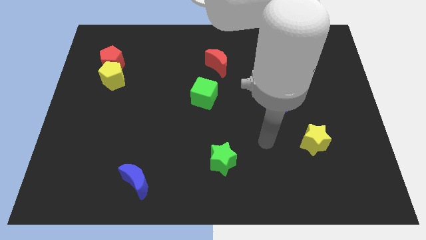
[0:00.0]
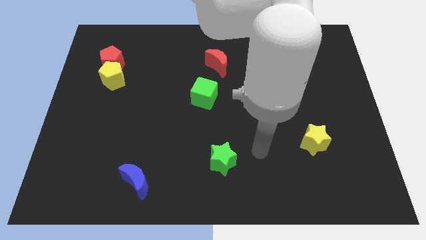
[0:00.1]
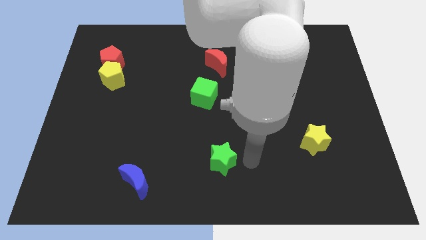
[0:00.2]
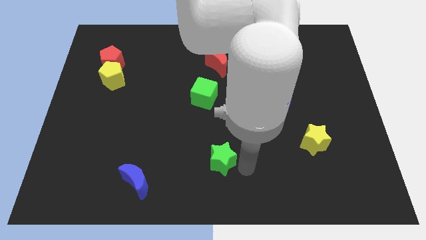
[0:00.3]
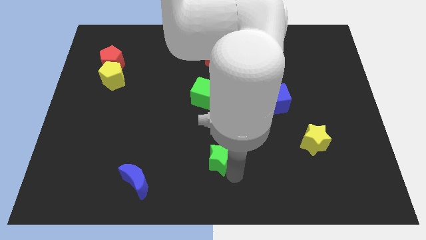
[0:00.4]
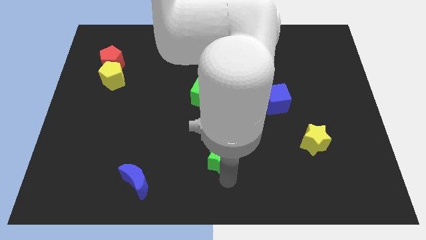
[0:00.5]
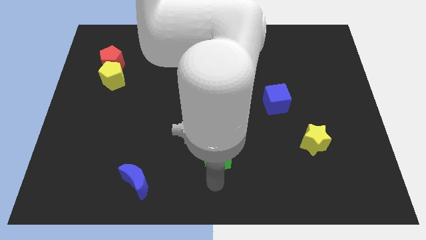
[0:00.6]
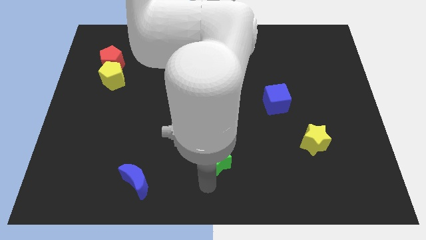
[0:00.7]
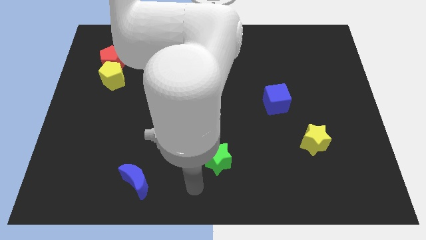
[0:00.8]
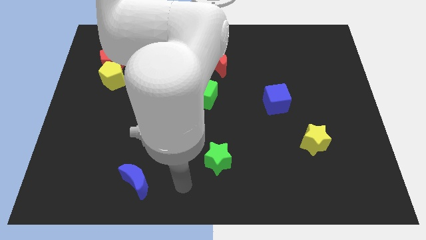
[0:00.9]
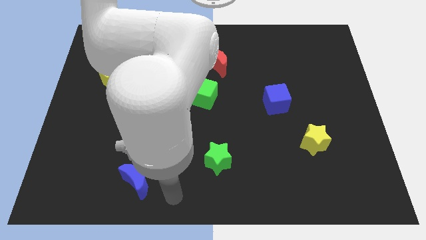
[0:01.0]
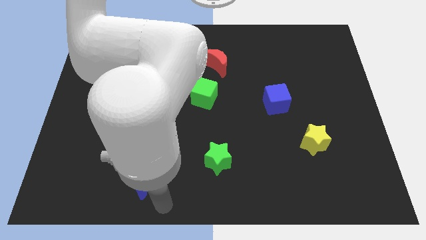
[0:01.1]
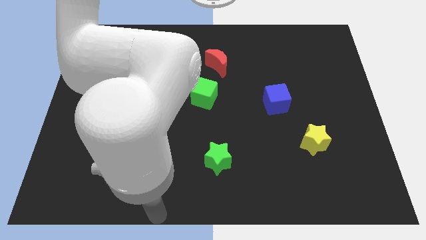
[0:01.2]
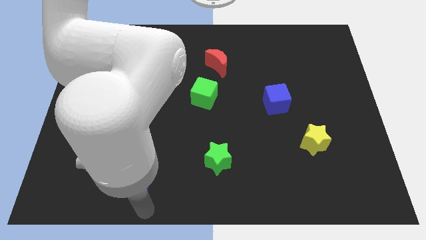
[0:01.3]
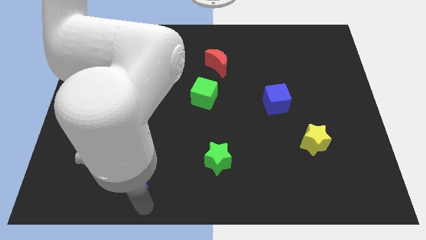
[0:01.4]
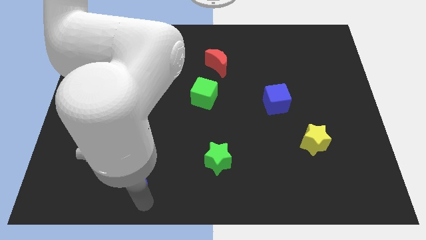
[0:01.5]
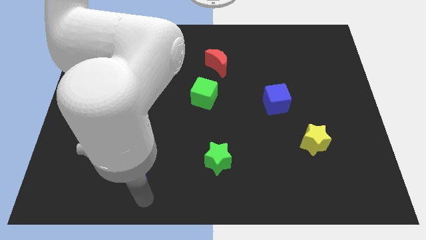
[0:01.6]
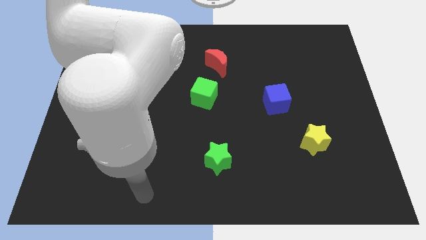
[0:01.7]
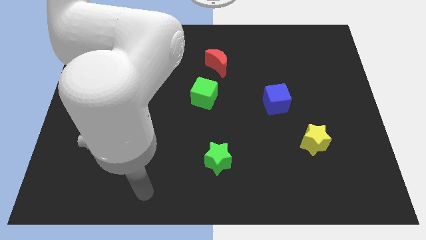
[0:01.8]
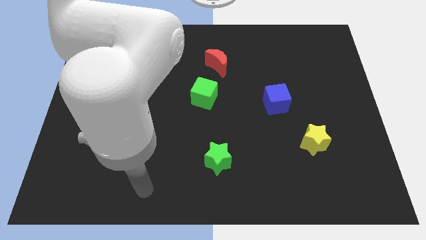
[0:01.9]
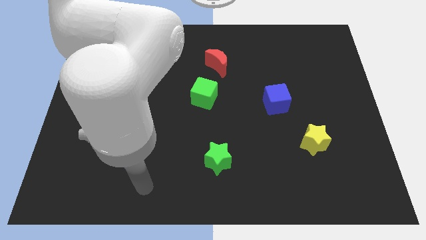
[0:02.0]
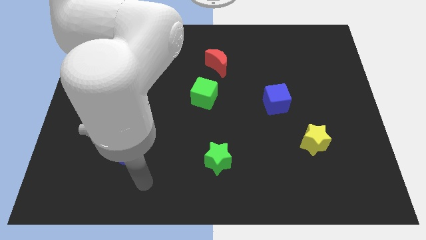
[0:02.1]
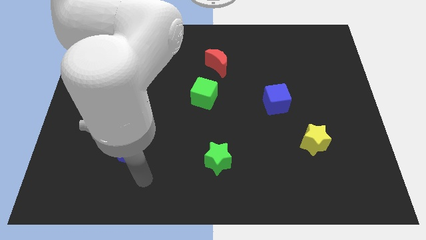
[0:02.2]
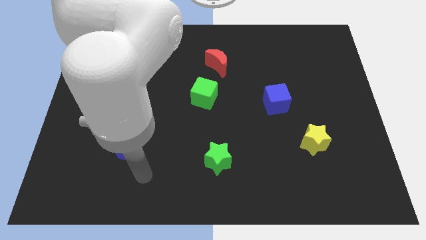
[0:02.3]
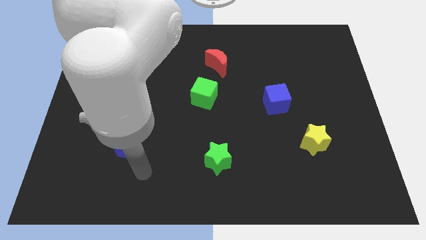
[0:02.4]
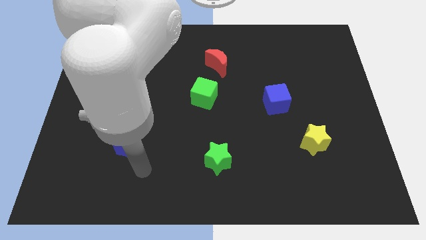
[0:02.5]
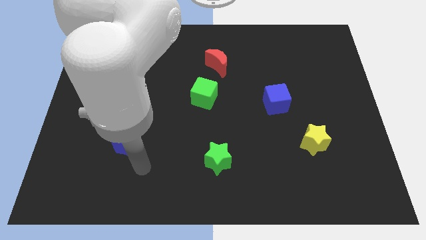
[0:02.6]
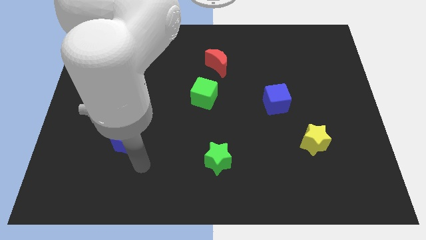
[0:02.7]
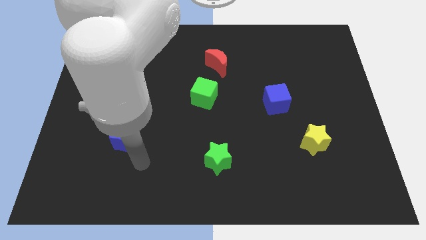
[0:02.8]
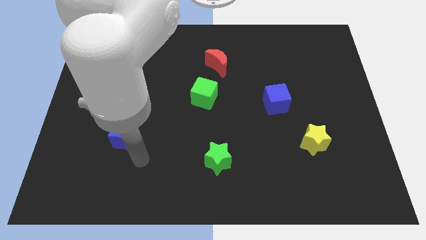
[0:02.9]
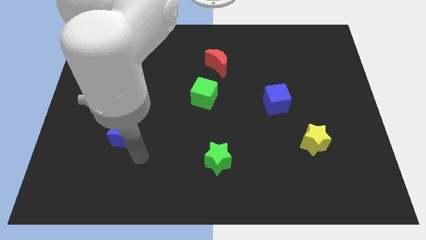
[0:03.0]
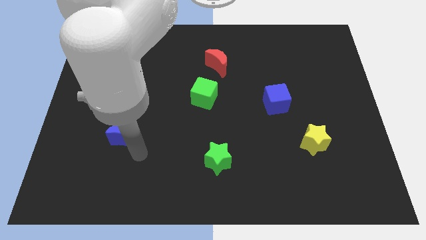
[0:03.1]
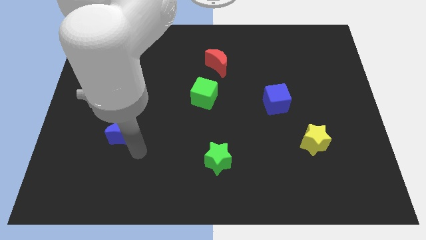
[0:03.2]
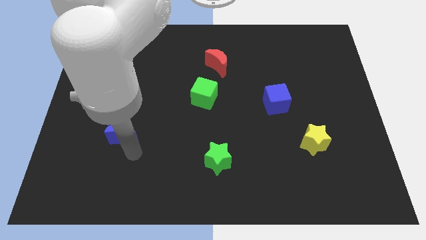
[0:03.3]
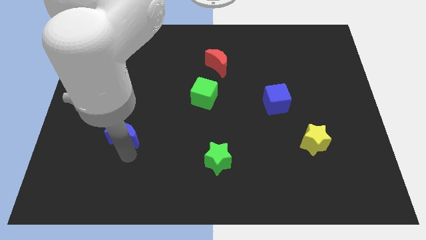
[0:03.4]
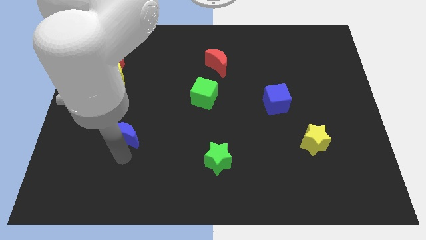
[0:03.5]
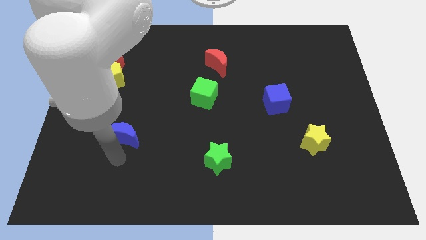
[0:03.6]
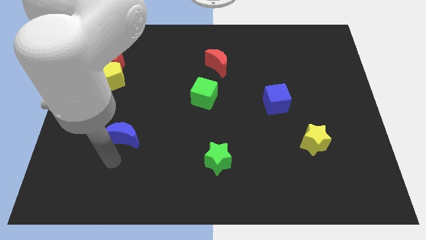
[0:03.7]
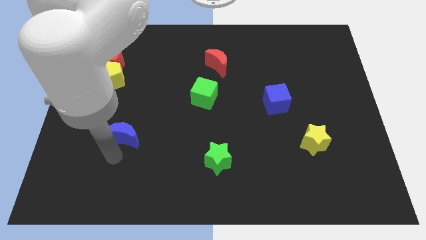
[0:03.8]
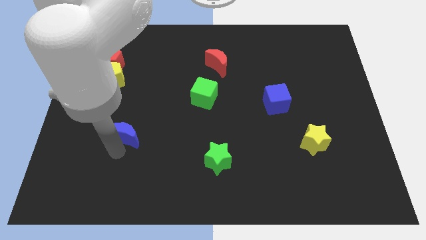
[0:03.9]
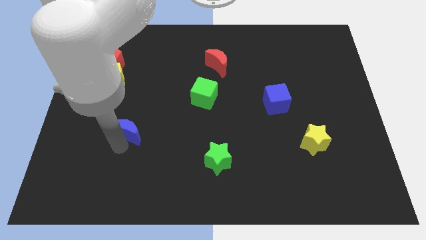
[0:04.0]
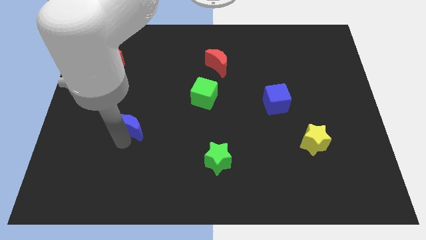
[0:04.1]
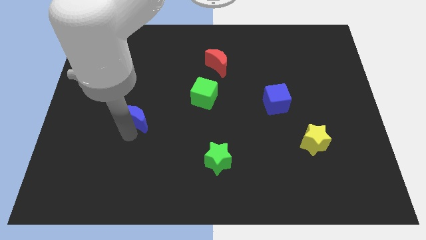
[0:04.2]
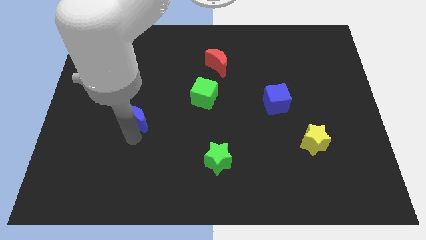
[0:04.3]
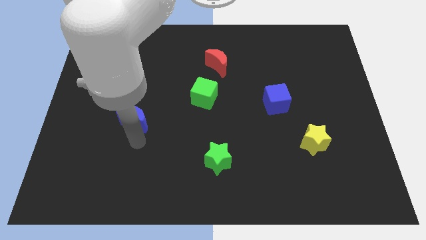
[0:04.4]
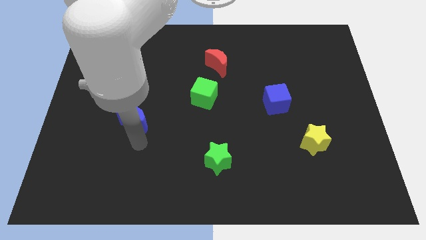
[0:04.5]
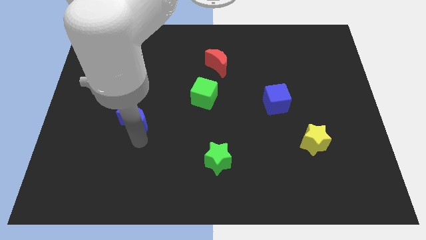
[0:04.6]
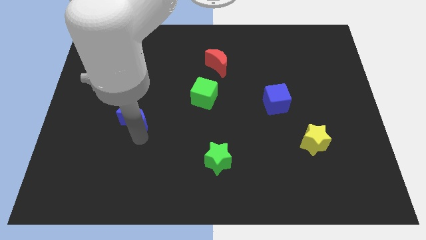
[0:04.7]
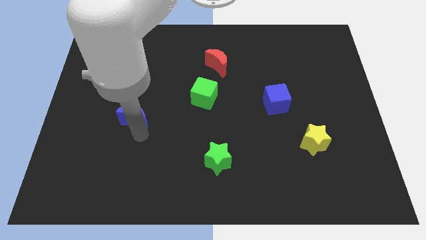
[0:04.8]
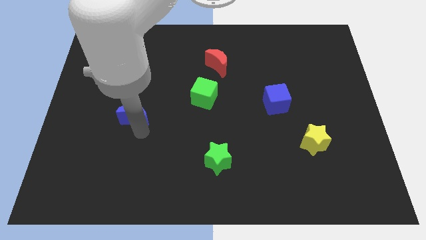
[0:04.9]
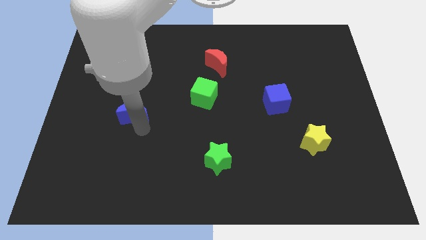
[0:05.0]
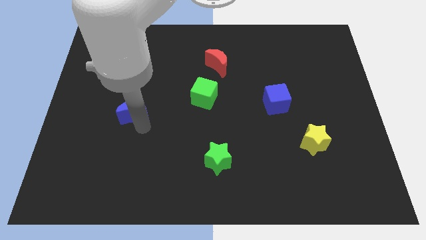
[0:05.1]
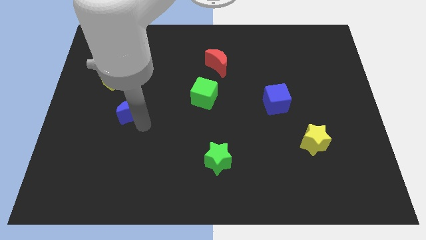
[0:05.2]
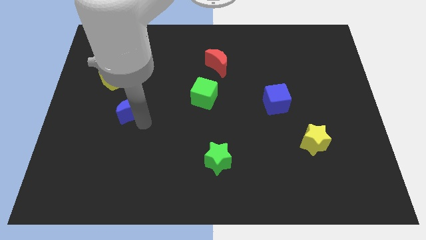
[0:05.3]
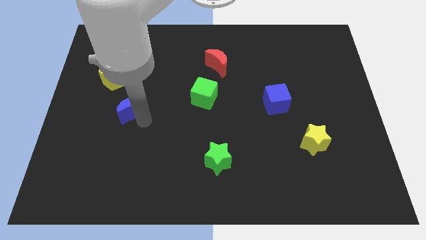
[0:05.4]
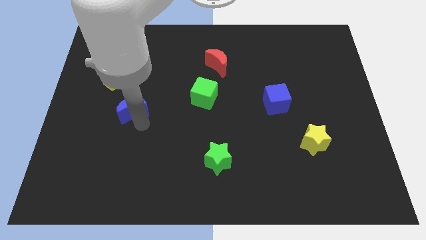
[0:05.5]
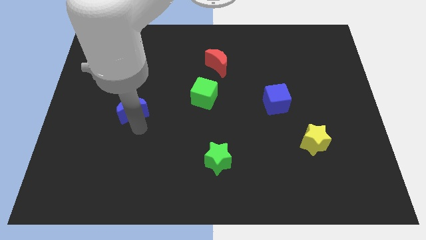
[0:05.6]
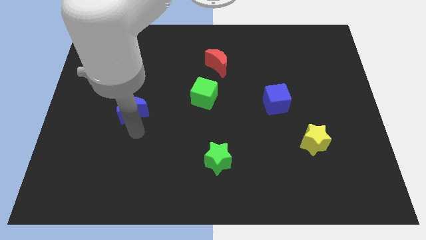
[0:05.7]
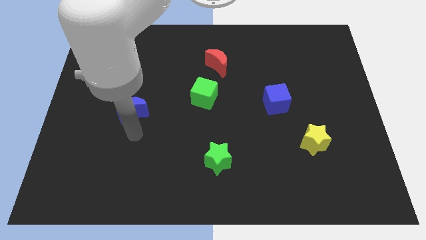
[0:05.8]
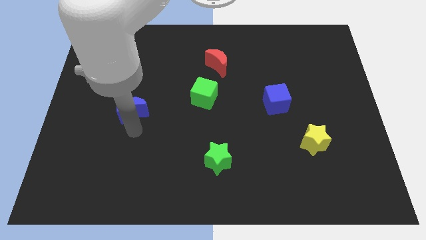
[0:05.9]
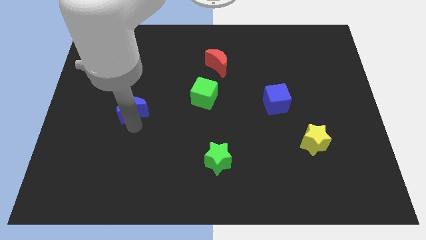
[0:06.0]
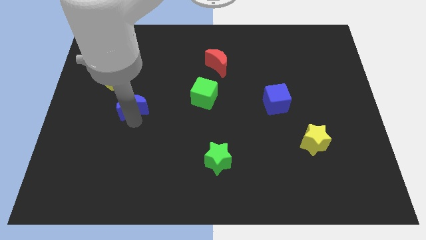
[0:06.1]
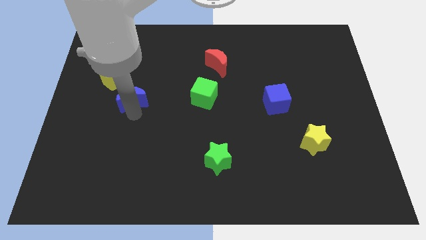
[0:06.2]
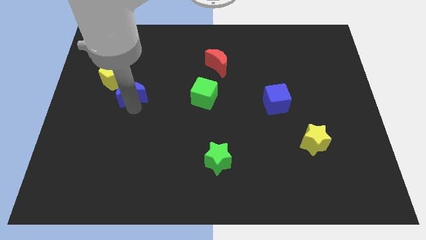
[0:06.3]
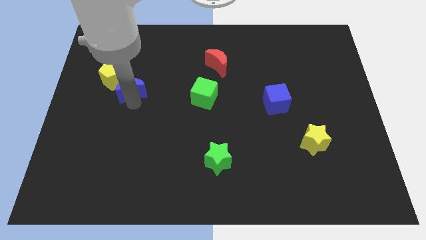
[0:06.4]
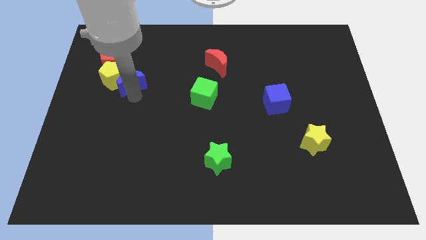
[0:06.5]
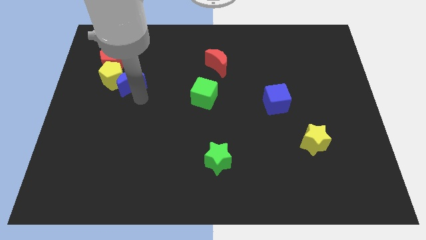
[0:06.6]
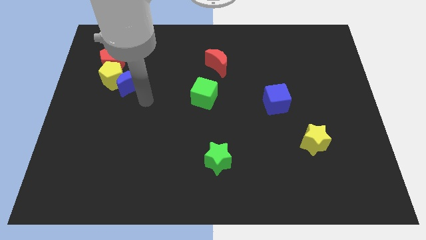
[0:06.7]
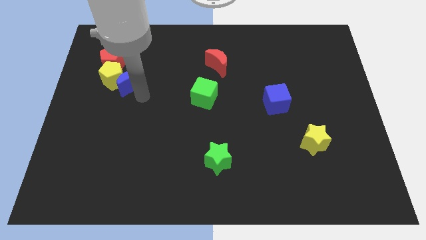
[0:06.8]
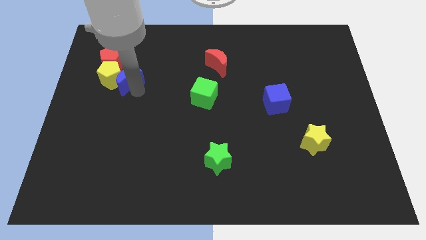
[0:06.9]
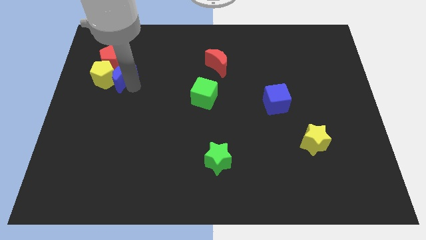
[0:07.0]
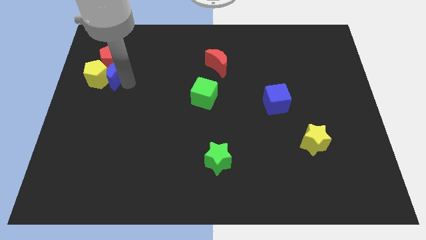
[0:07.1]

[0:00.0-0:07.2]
push the blue moon next to the red pentagon
